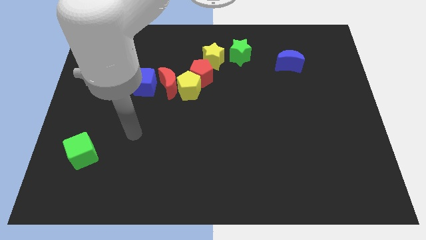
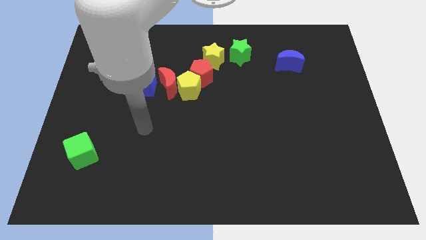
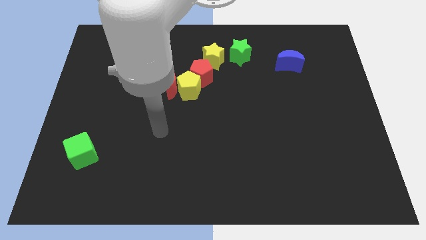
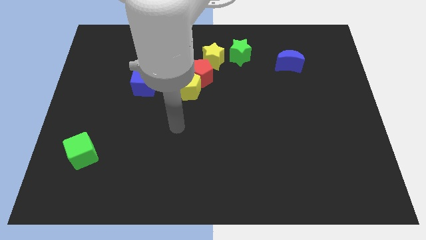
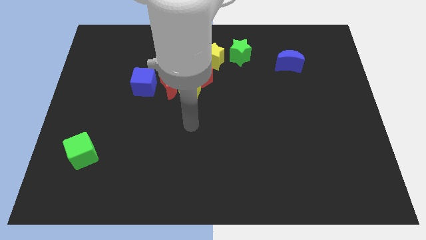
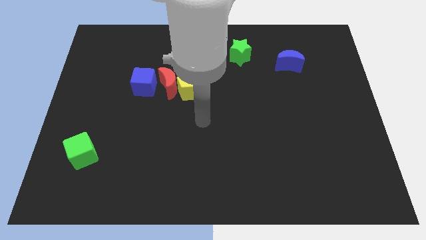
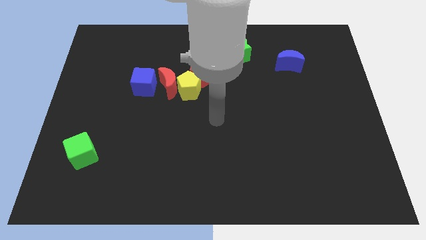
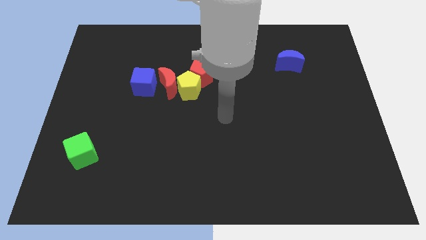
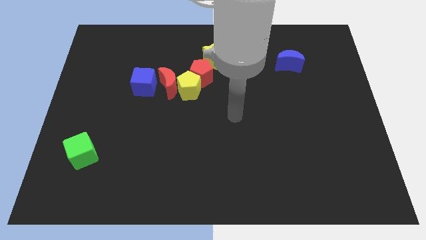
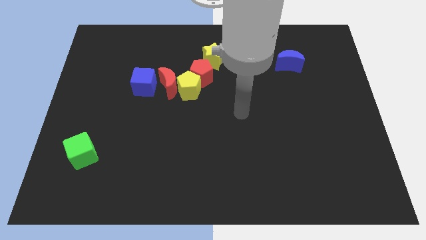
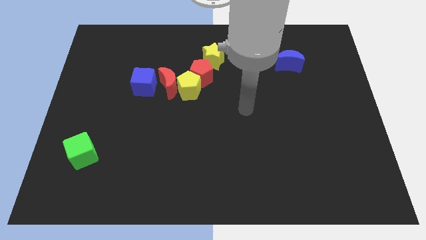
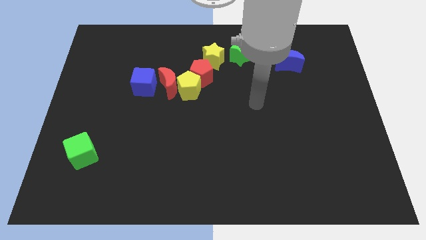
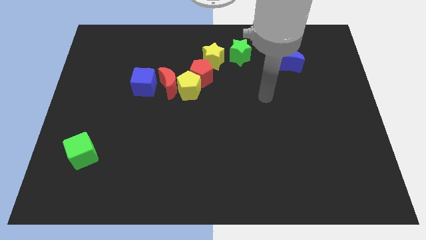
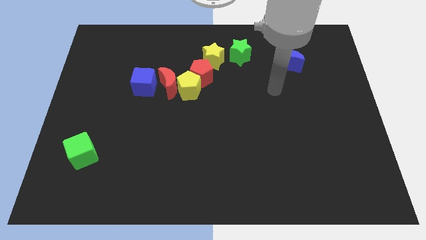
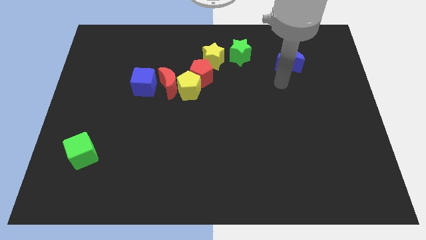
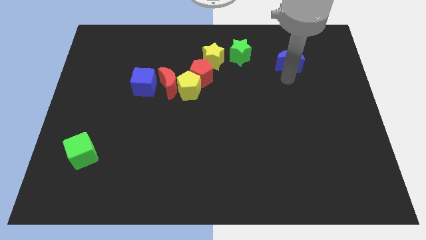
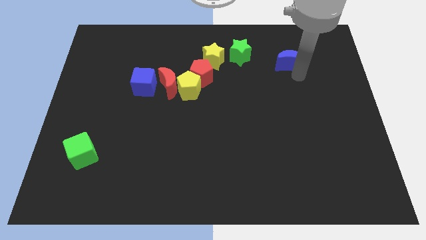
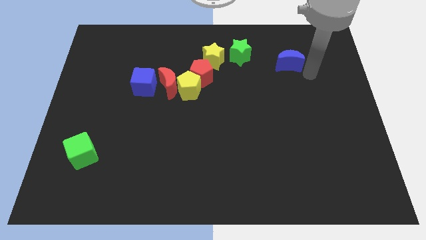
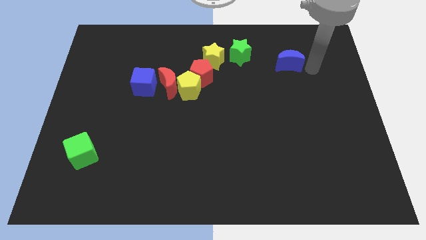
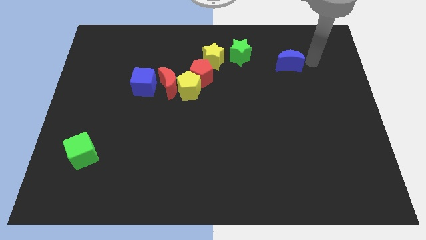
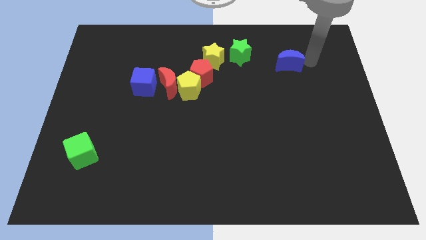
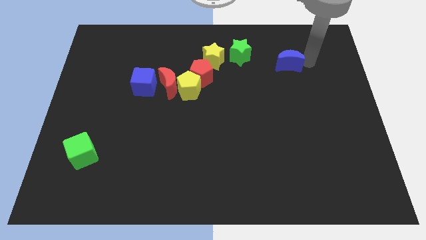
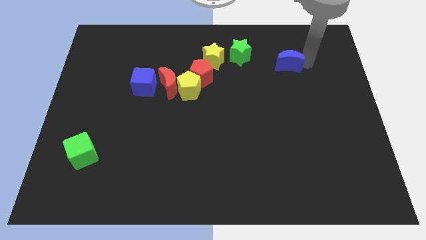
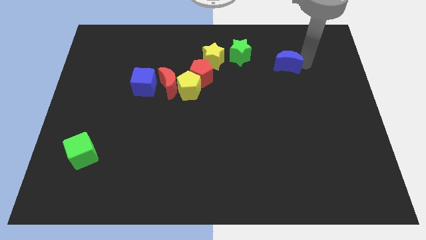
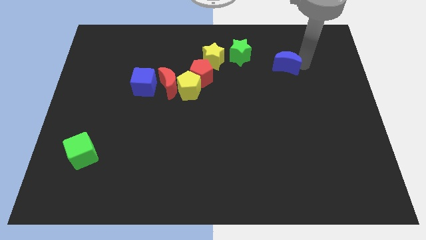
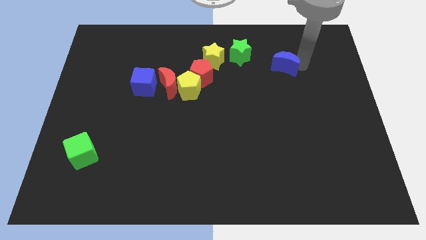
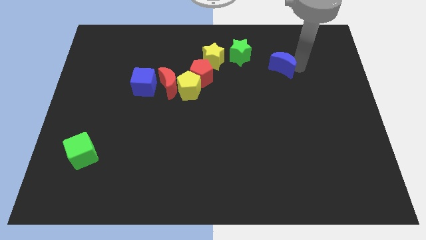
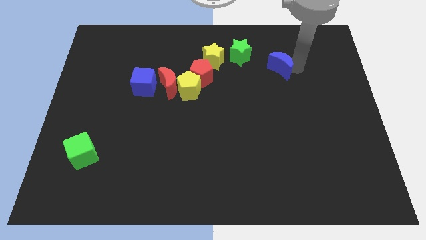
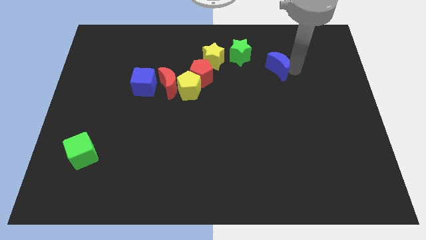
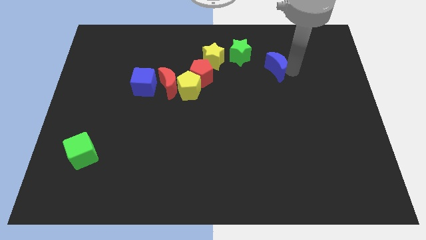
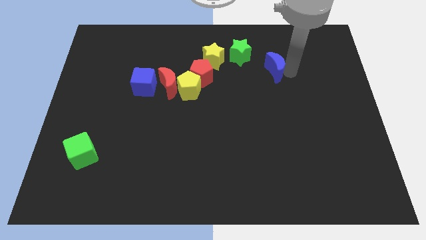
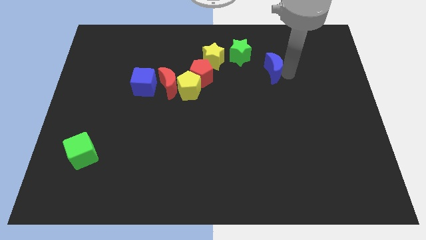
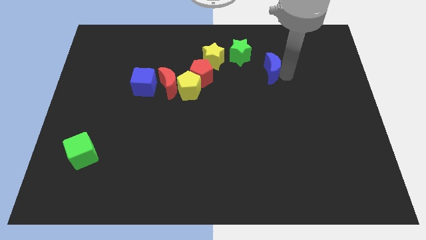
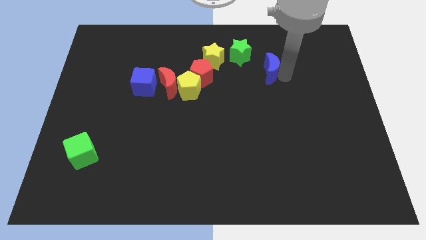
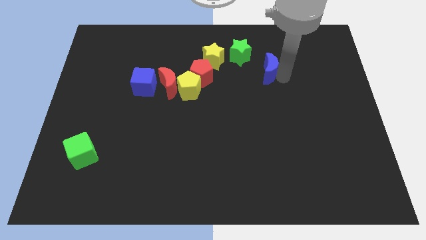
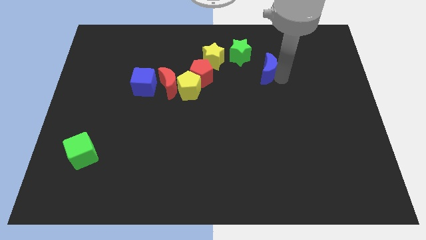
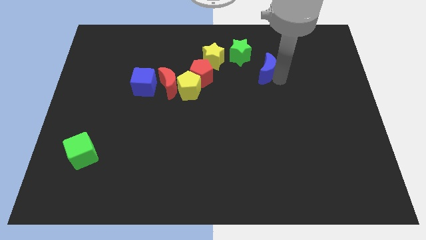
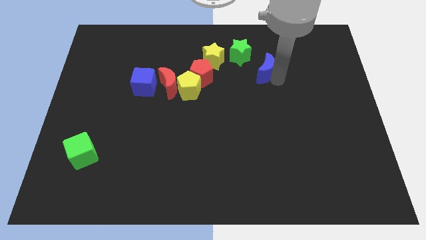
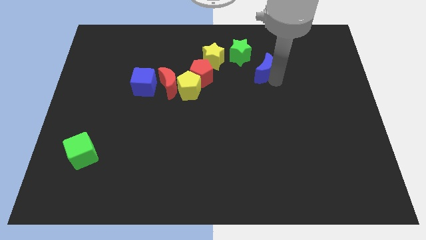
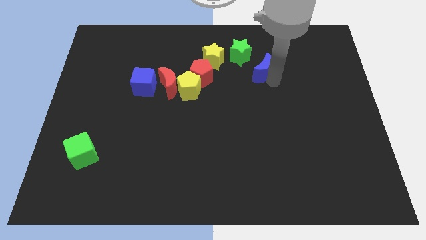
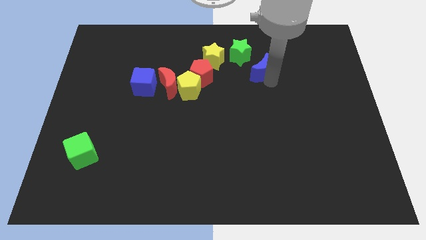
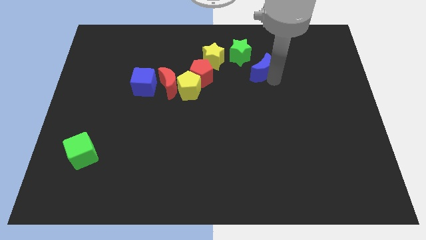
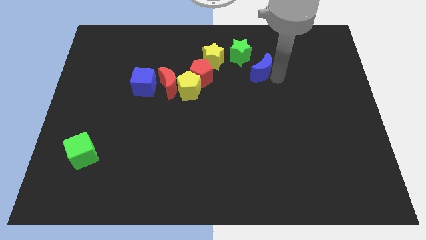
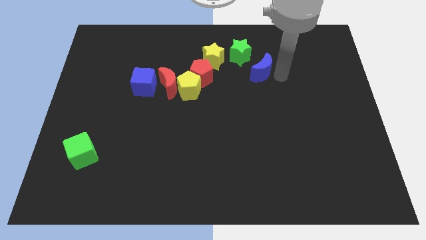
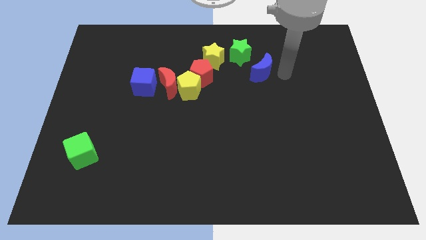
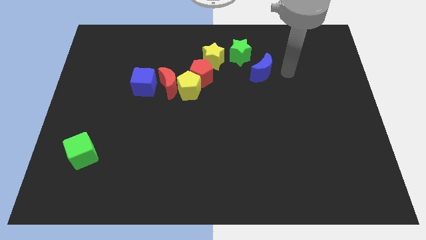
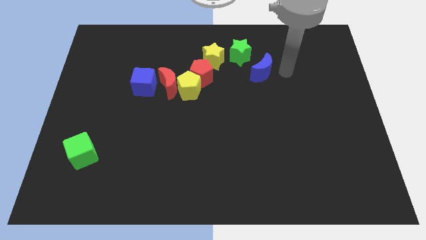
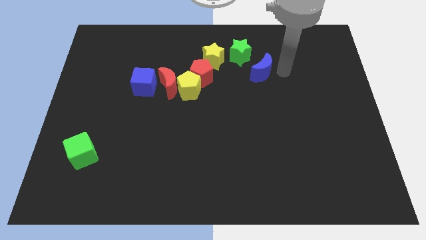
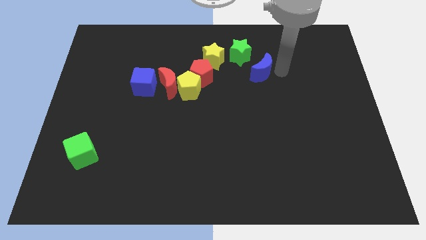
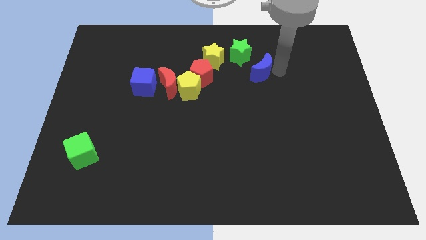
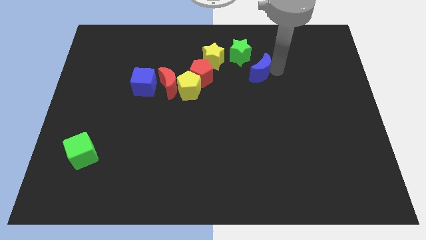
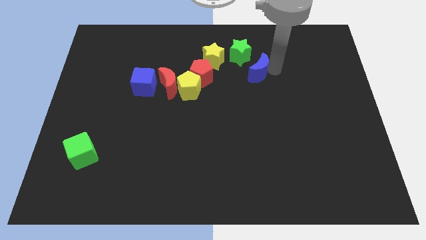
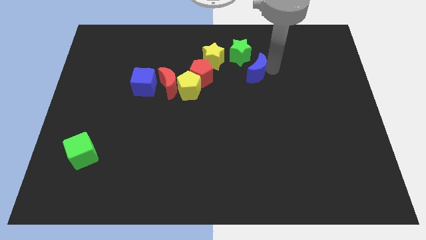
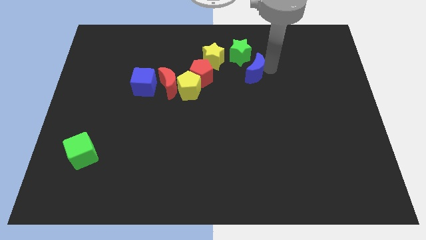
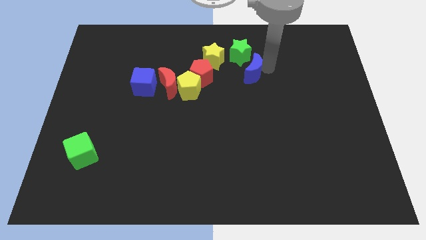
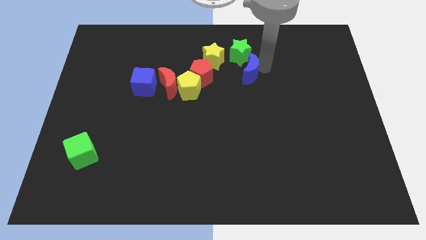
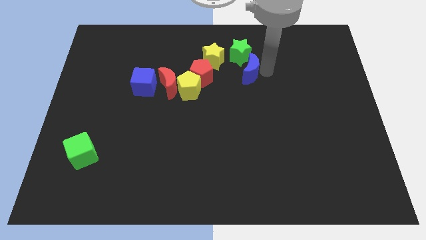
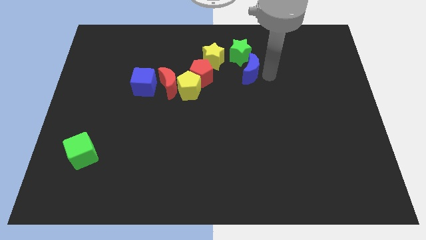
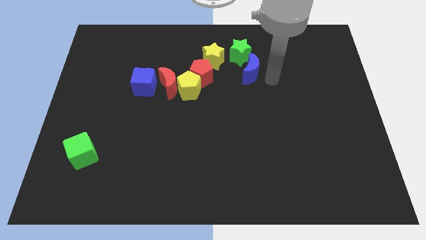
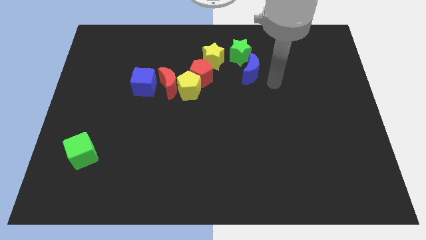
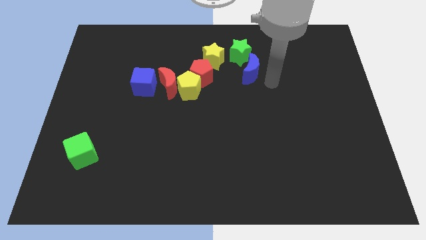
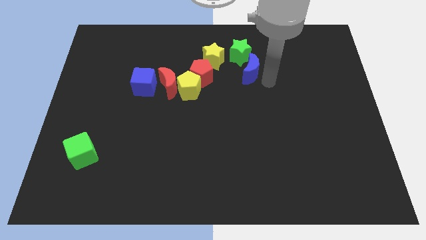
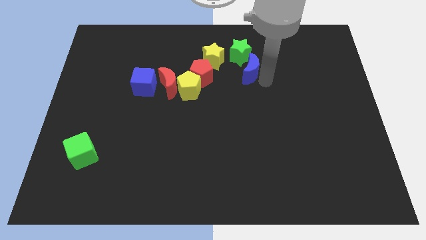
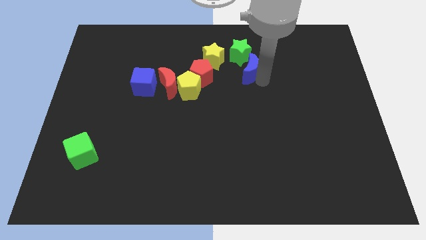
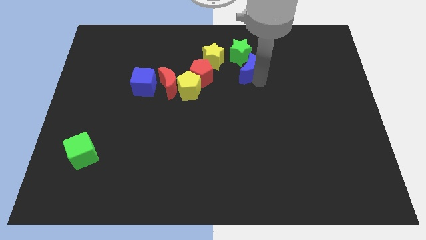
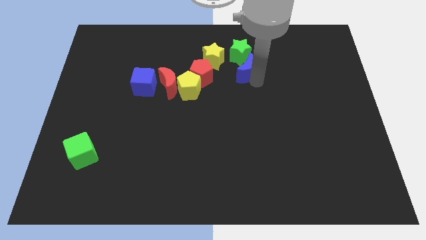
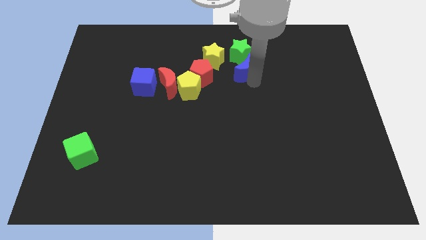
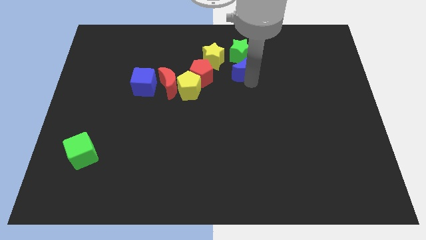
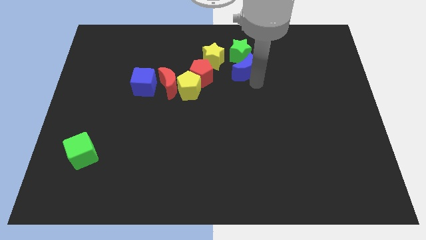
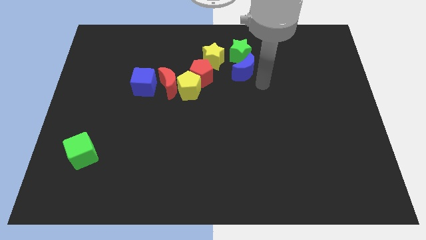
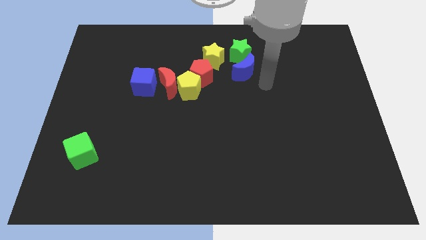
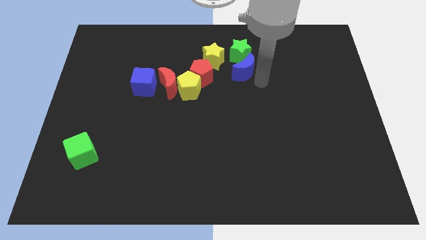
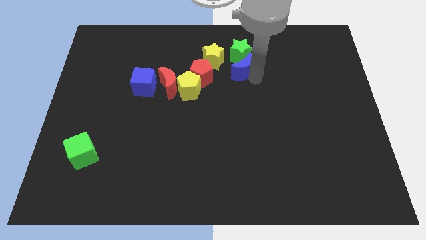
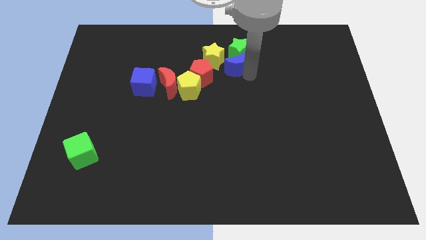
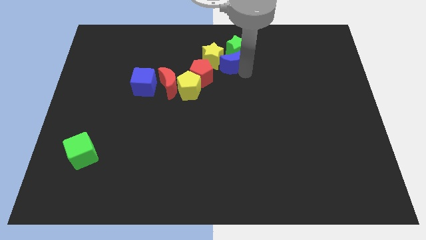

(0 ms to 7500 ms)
put the blue moon towards the yellow star

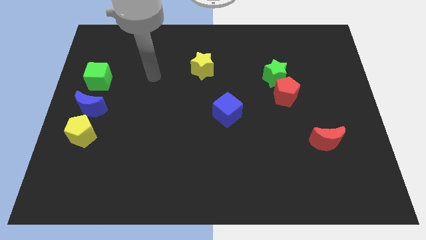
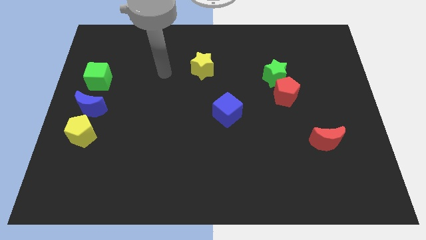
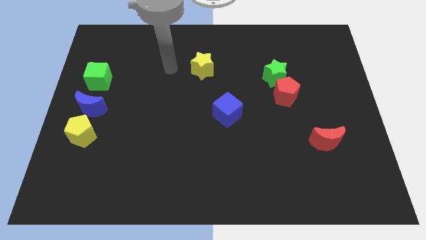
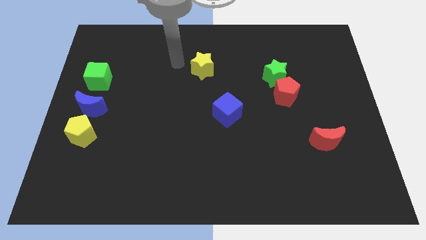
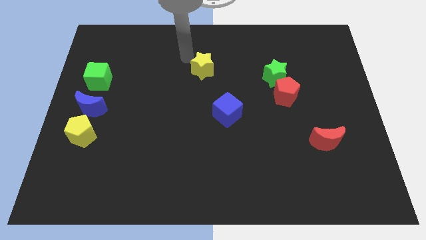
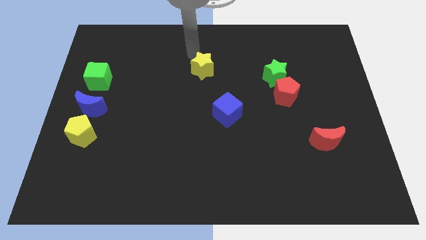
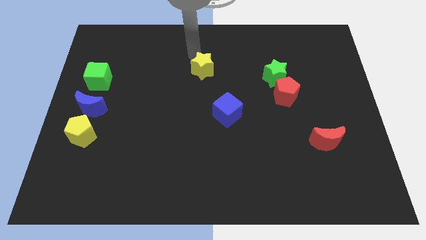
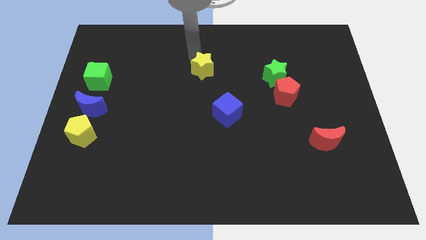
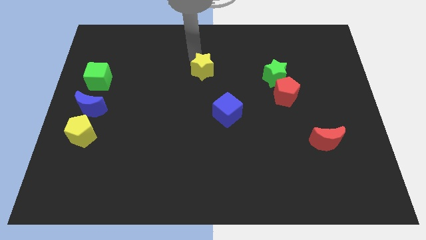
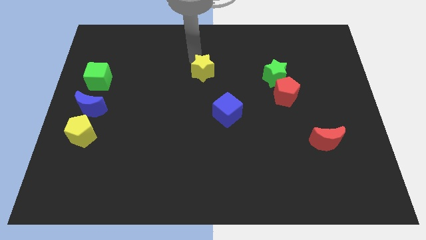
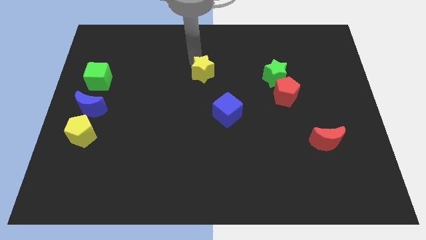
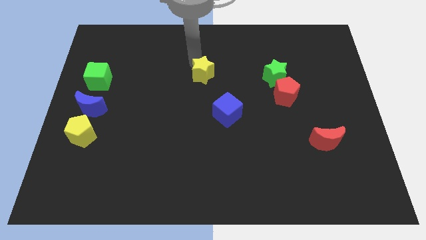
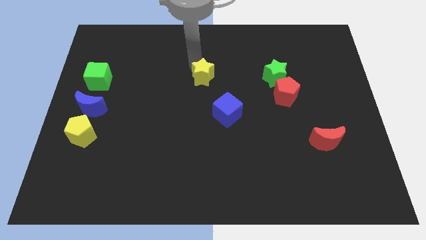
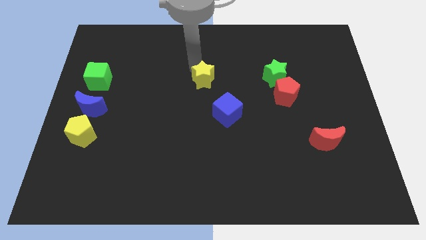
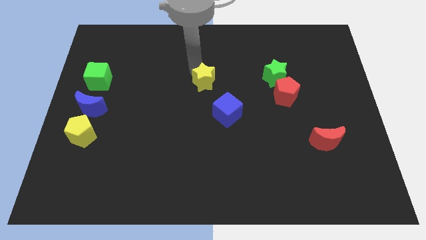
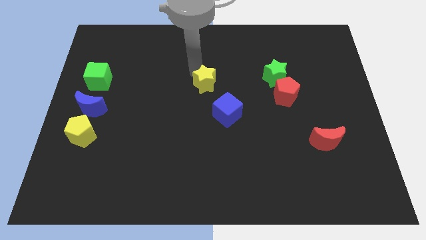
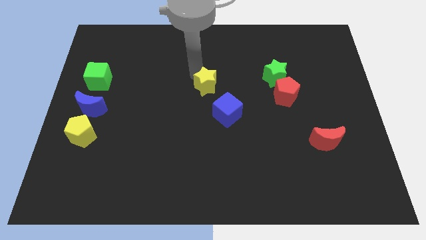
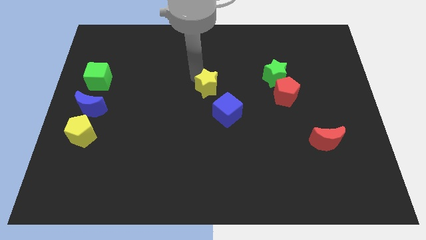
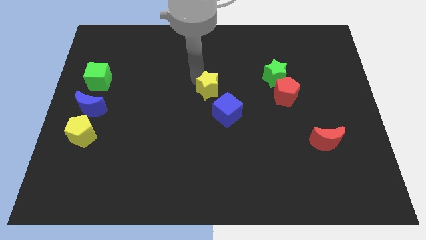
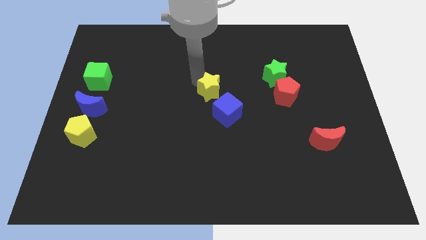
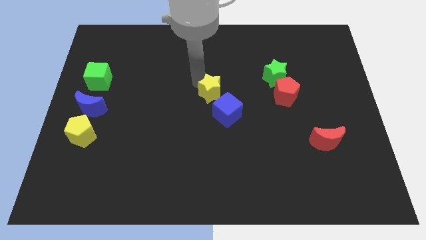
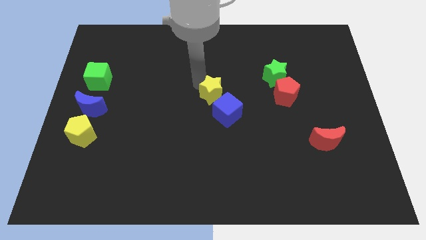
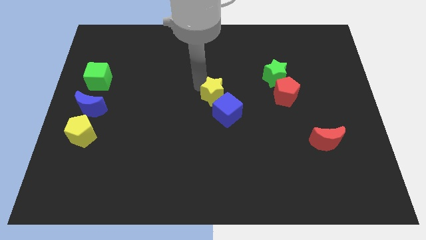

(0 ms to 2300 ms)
slide the yellow star towards the blue cube
